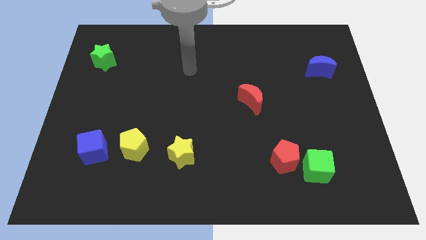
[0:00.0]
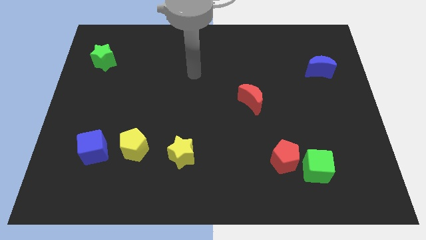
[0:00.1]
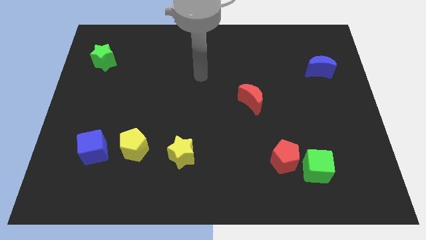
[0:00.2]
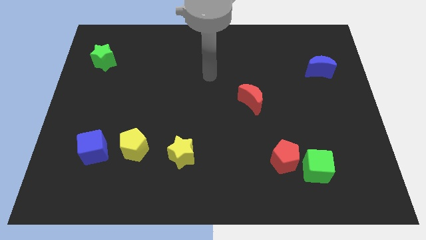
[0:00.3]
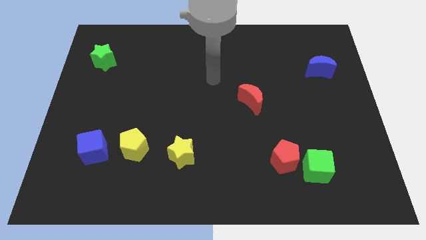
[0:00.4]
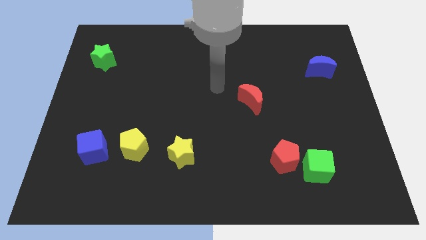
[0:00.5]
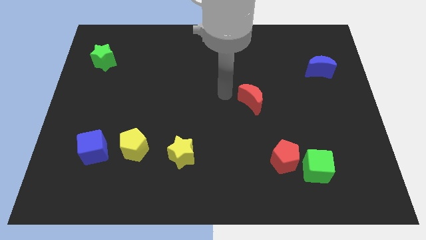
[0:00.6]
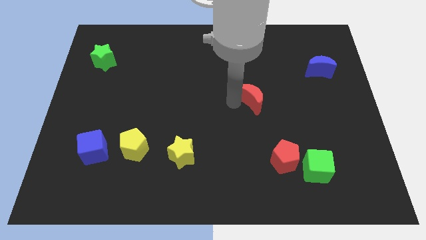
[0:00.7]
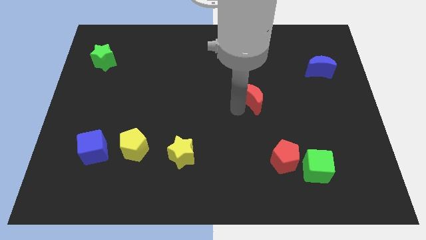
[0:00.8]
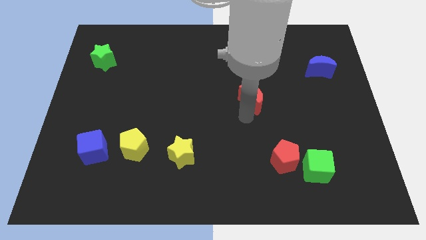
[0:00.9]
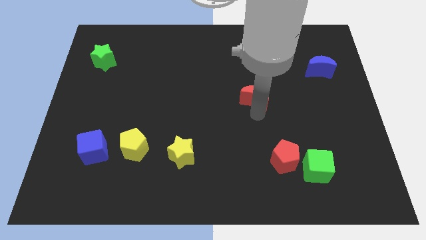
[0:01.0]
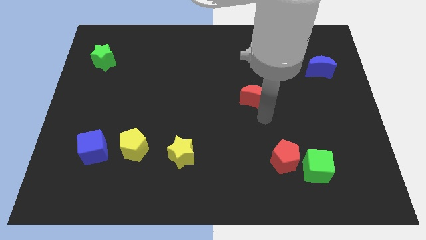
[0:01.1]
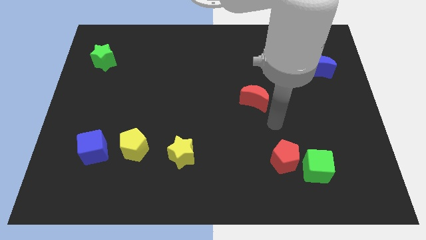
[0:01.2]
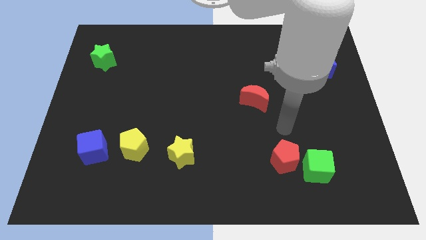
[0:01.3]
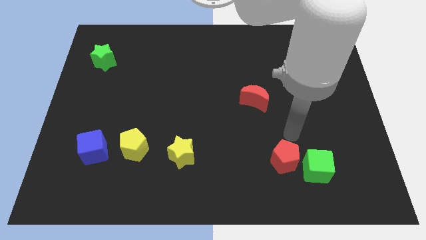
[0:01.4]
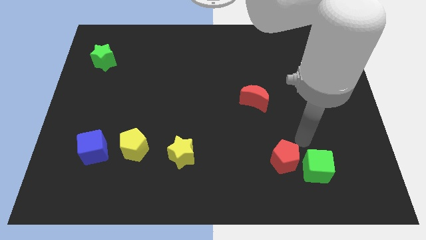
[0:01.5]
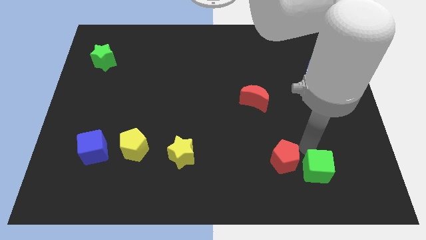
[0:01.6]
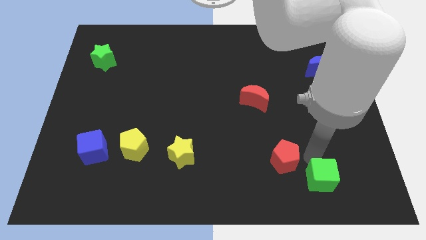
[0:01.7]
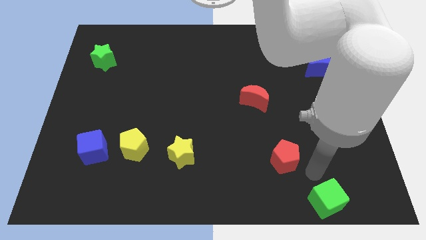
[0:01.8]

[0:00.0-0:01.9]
move the red pentagon away from the green cube

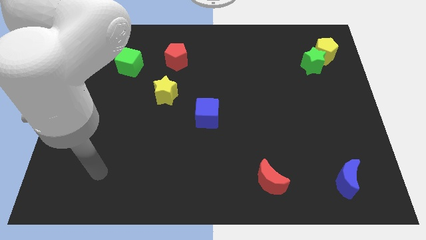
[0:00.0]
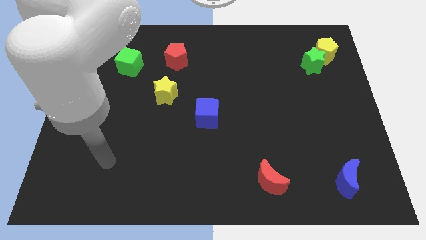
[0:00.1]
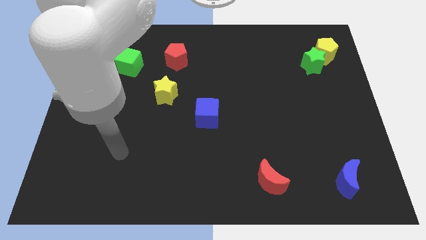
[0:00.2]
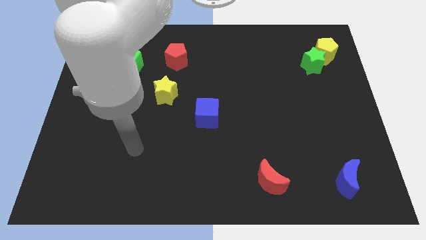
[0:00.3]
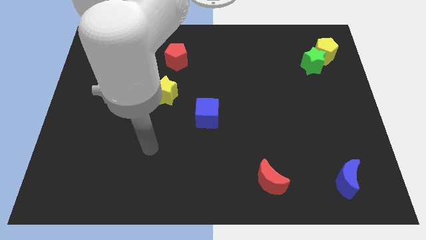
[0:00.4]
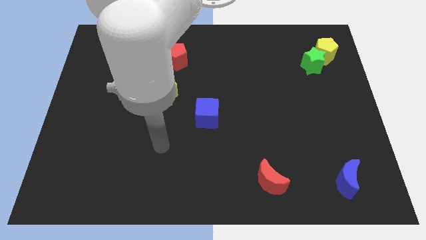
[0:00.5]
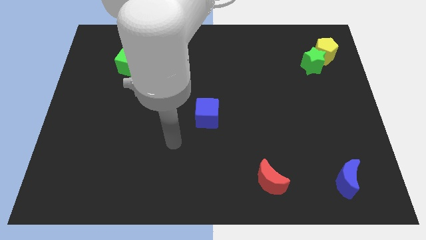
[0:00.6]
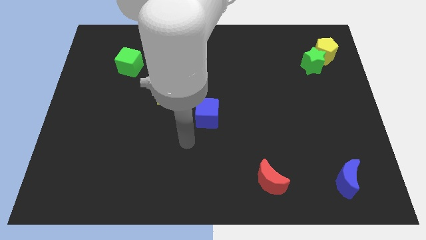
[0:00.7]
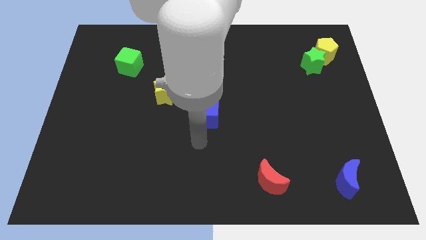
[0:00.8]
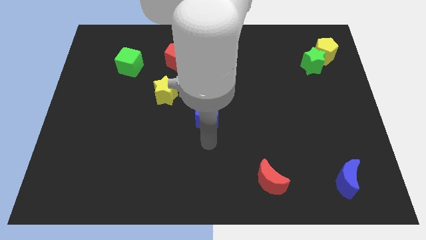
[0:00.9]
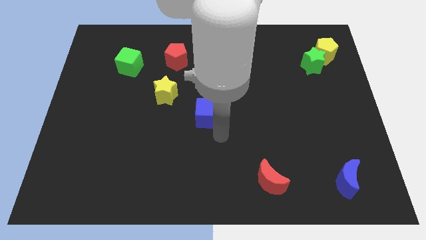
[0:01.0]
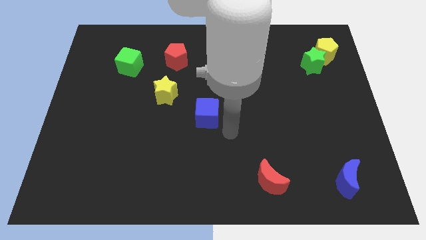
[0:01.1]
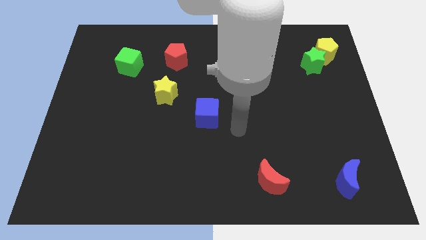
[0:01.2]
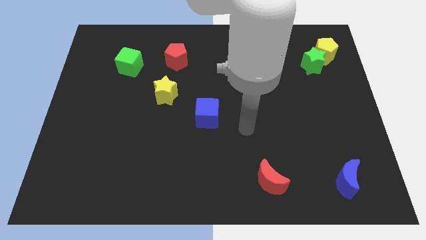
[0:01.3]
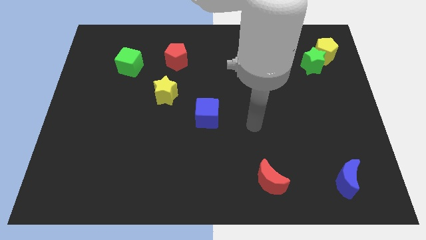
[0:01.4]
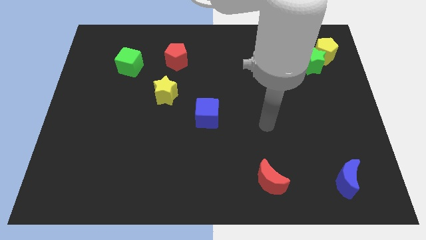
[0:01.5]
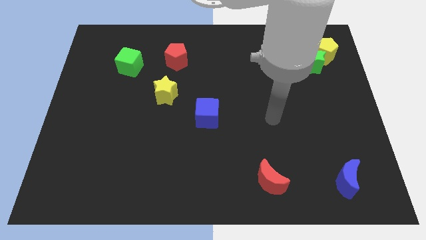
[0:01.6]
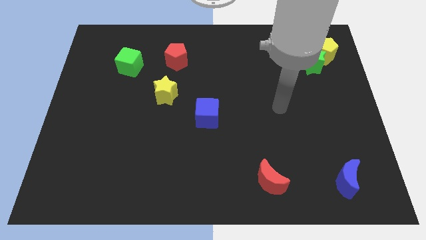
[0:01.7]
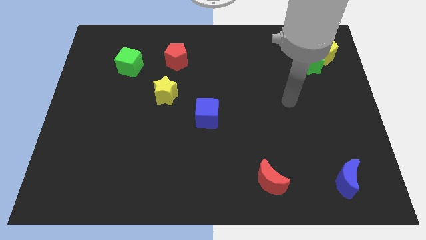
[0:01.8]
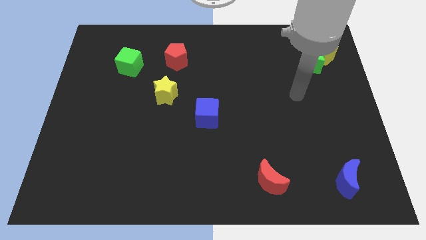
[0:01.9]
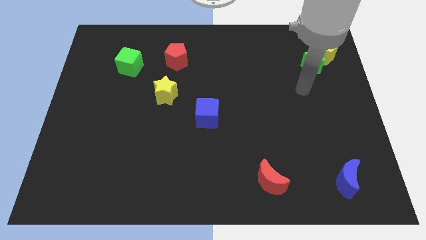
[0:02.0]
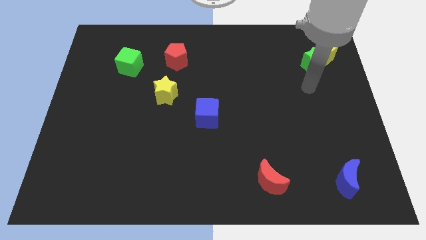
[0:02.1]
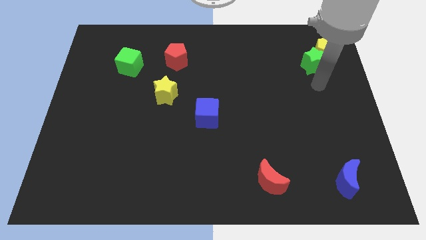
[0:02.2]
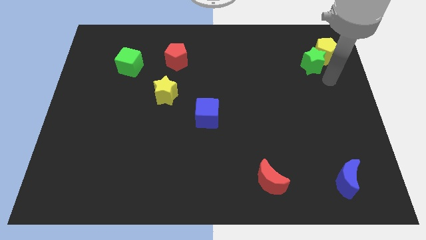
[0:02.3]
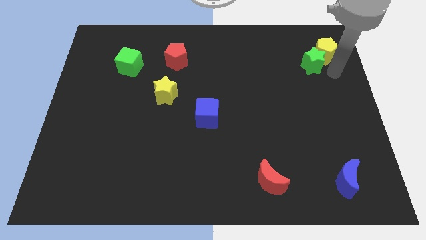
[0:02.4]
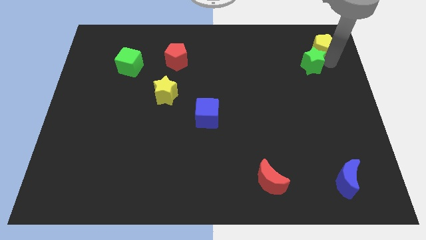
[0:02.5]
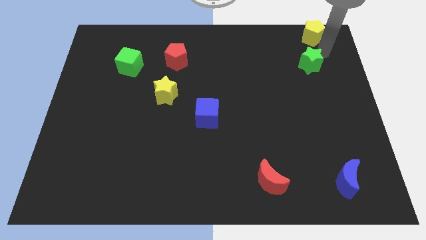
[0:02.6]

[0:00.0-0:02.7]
pull the green star apart from the yellow pentagon

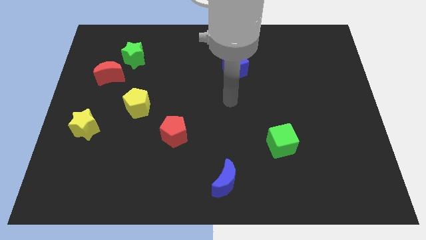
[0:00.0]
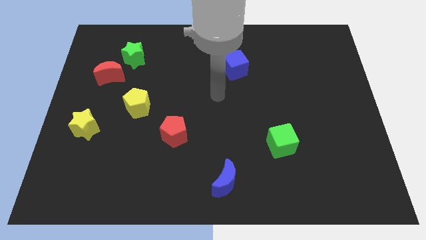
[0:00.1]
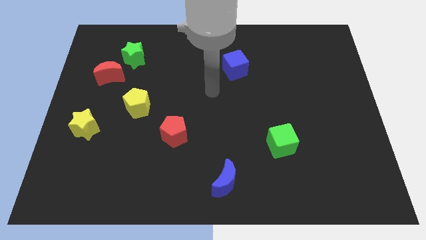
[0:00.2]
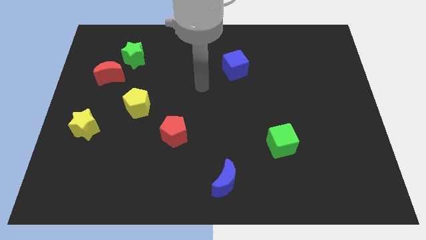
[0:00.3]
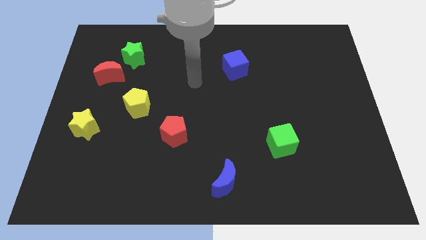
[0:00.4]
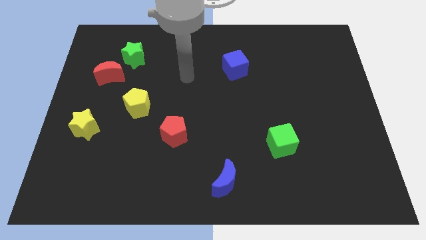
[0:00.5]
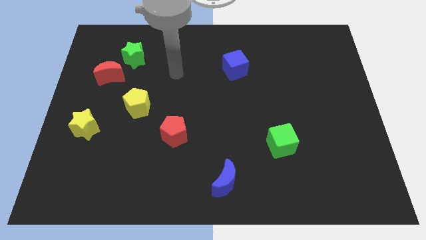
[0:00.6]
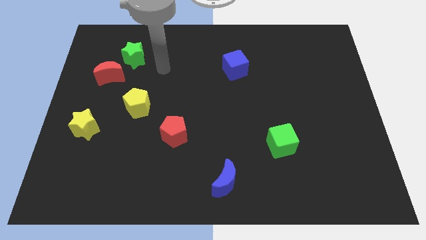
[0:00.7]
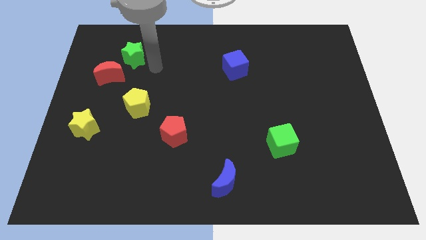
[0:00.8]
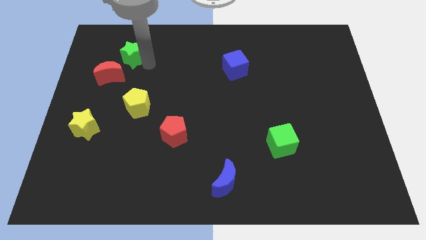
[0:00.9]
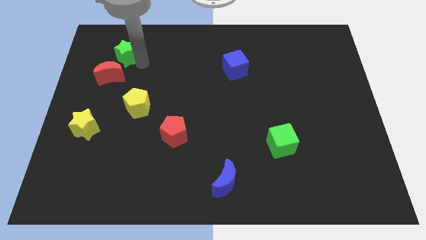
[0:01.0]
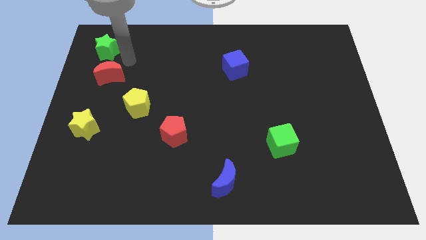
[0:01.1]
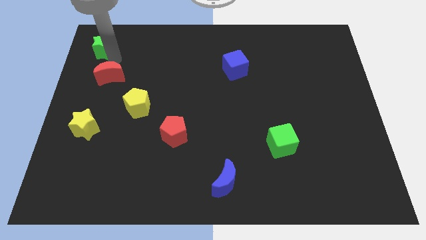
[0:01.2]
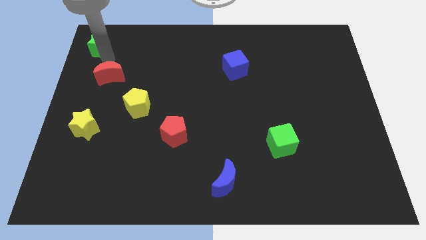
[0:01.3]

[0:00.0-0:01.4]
separate the red moon from the green star

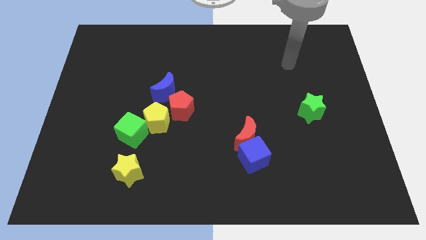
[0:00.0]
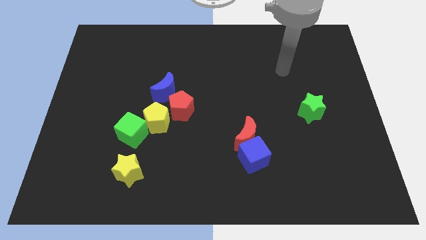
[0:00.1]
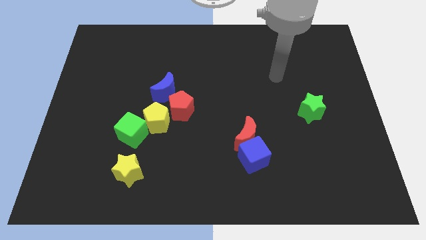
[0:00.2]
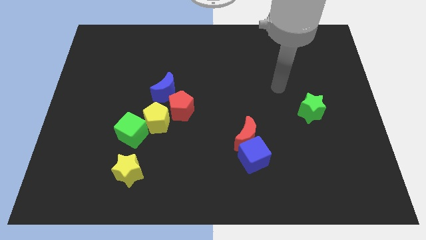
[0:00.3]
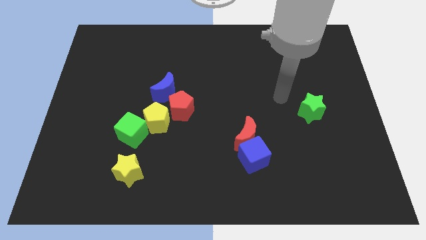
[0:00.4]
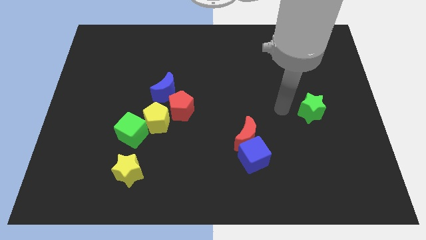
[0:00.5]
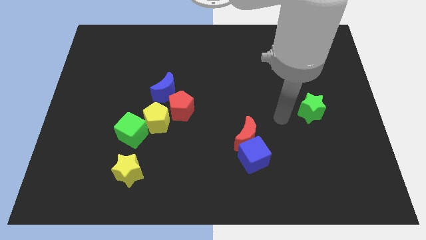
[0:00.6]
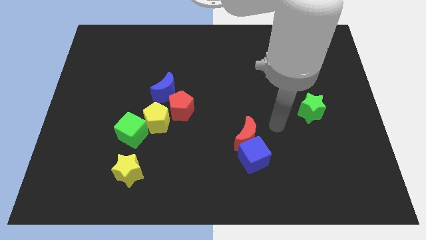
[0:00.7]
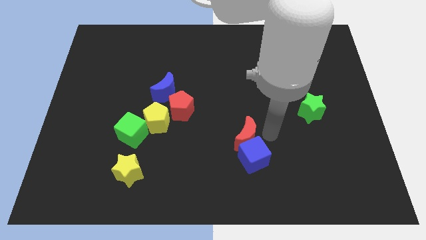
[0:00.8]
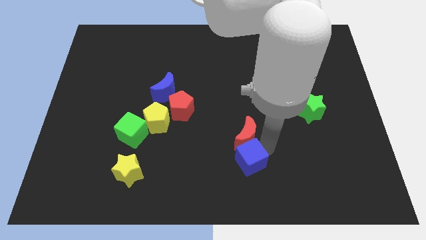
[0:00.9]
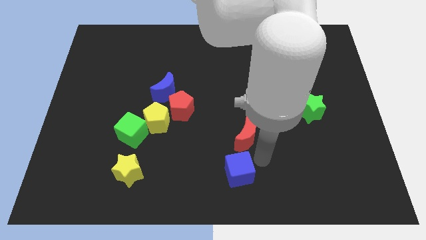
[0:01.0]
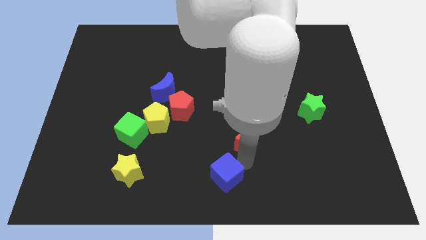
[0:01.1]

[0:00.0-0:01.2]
separate the red moon from the blue cube

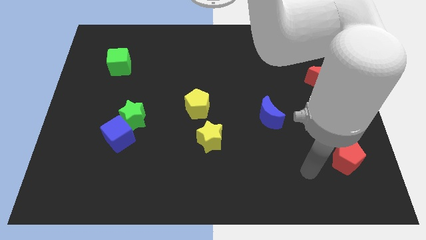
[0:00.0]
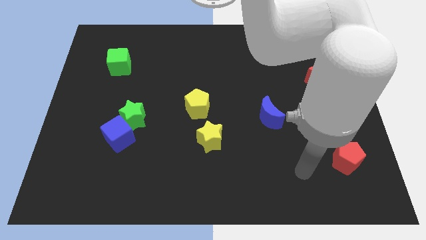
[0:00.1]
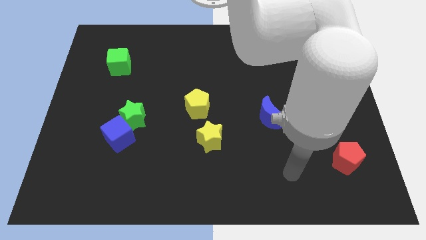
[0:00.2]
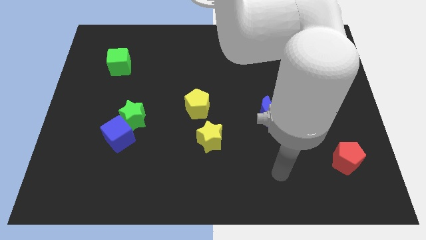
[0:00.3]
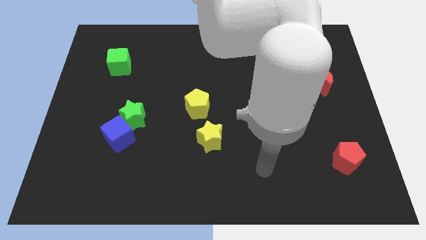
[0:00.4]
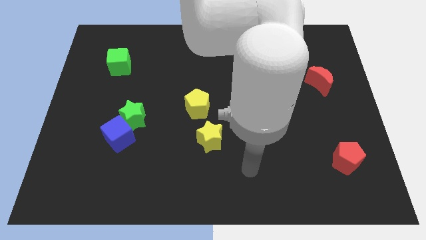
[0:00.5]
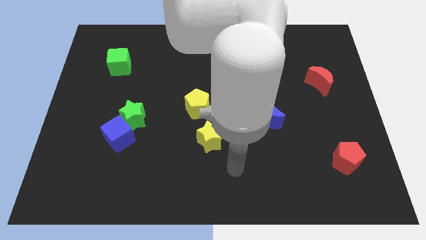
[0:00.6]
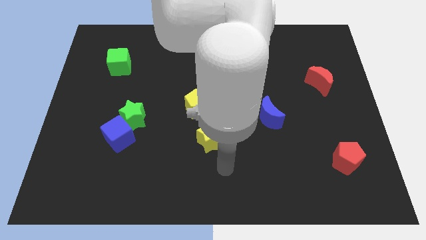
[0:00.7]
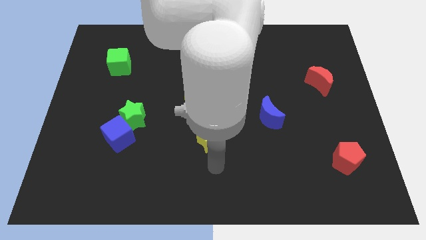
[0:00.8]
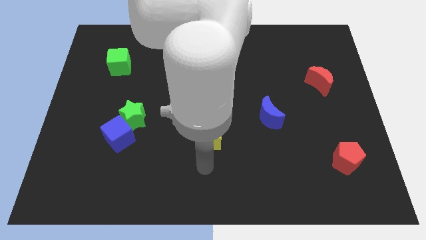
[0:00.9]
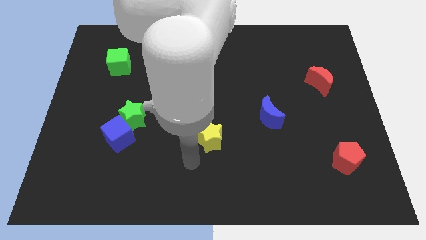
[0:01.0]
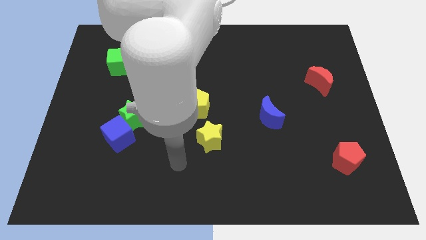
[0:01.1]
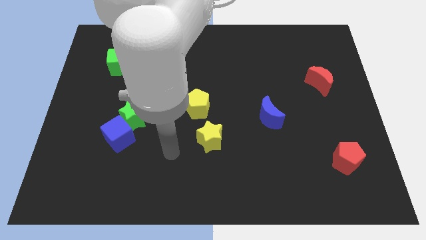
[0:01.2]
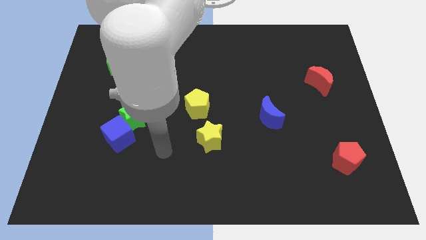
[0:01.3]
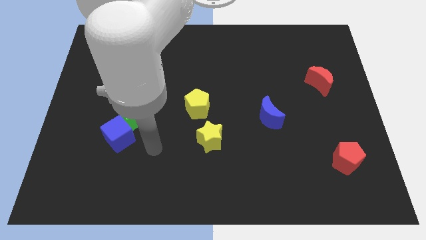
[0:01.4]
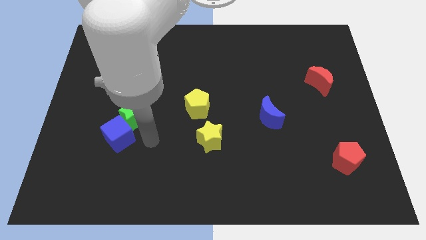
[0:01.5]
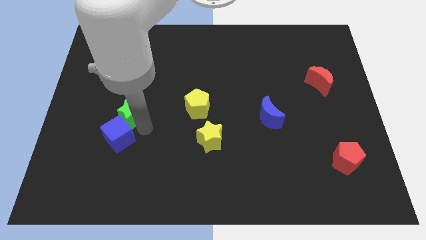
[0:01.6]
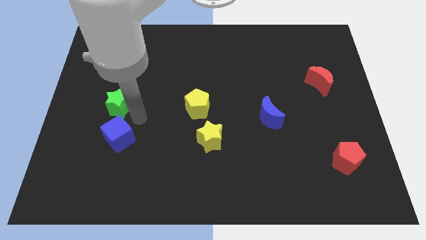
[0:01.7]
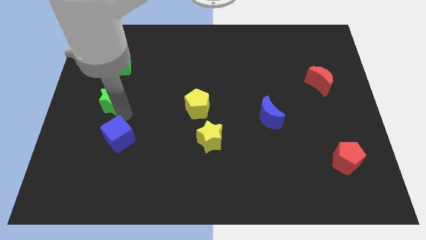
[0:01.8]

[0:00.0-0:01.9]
move the blue cube away from the green star

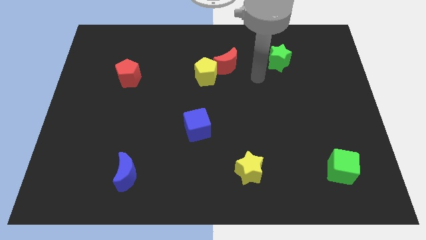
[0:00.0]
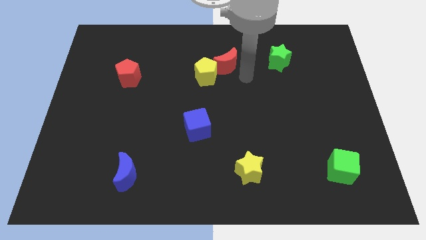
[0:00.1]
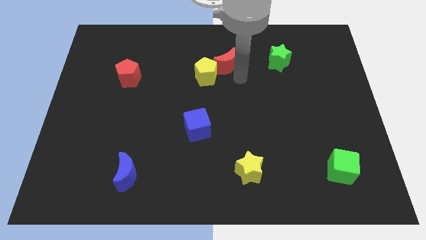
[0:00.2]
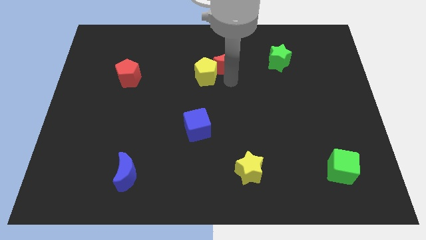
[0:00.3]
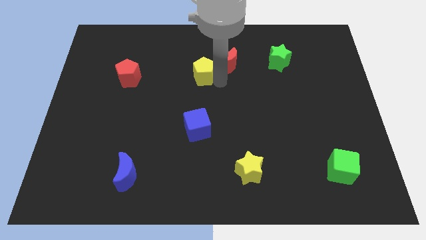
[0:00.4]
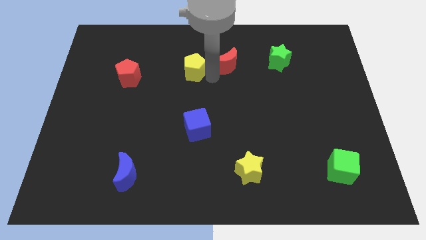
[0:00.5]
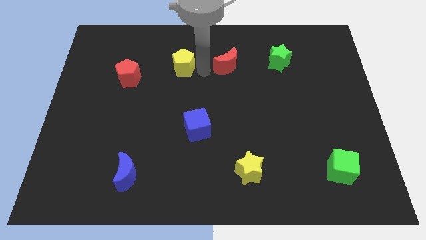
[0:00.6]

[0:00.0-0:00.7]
separate the red moon from the yellow pentagon
